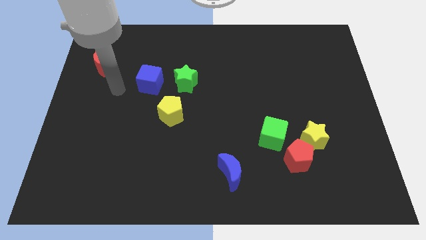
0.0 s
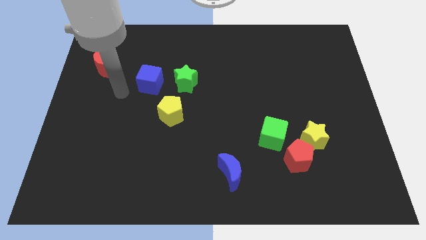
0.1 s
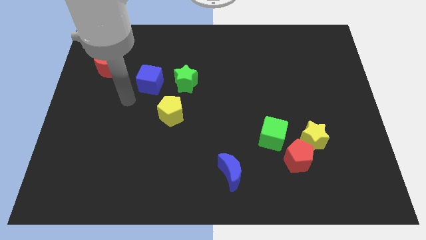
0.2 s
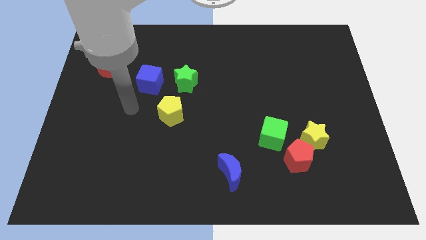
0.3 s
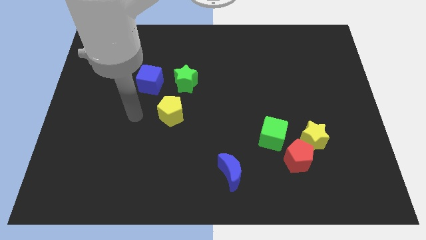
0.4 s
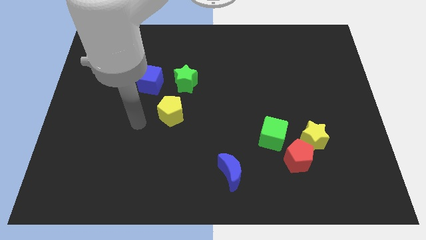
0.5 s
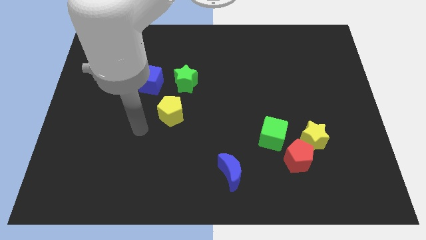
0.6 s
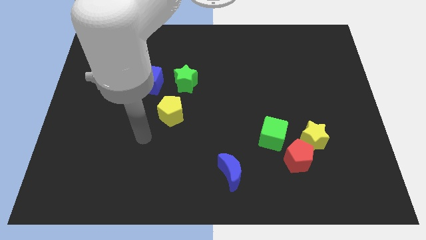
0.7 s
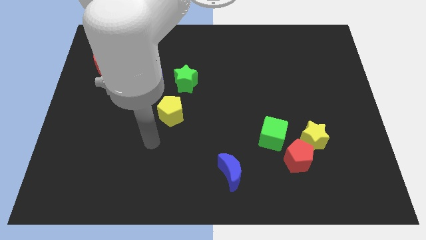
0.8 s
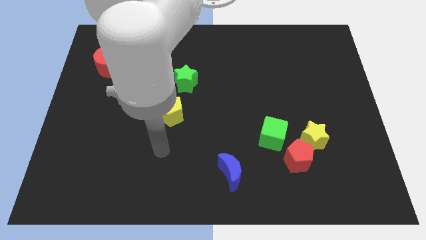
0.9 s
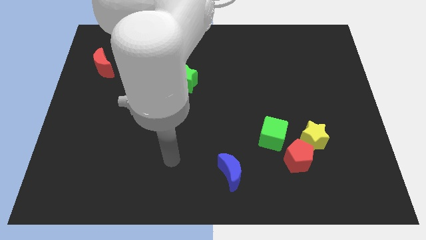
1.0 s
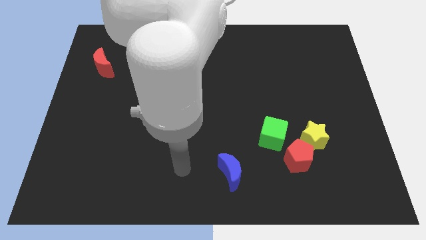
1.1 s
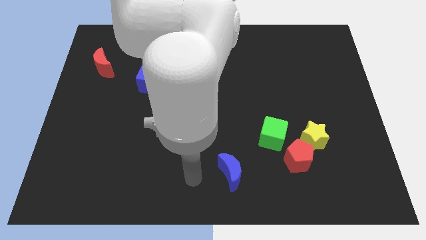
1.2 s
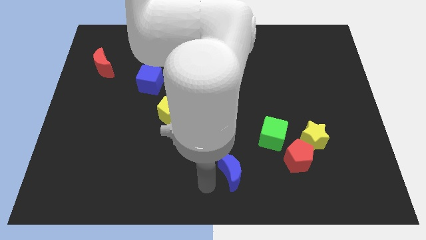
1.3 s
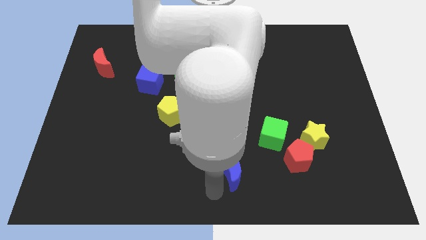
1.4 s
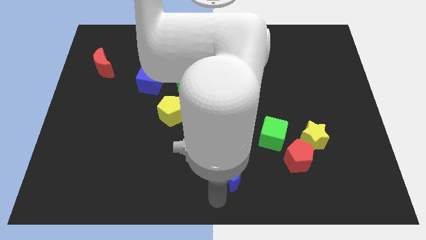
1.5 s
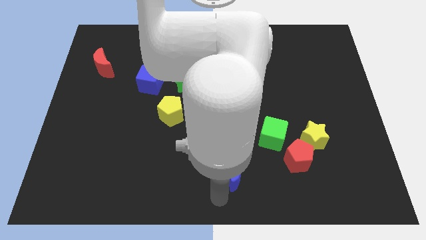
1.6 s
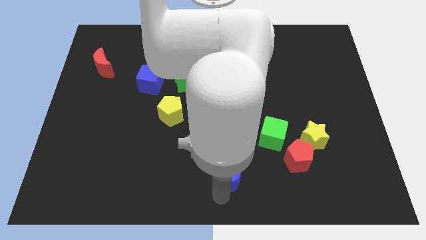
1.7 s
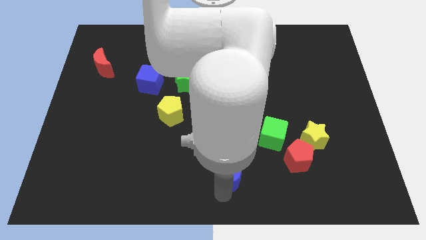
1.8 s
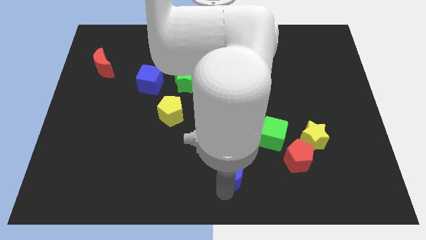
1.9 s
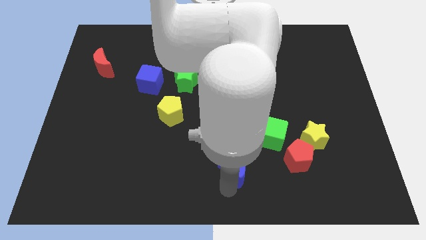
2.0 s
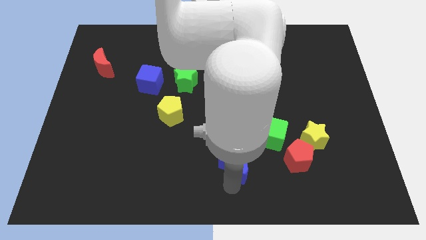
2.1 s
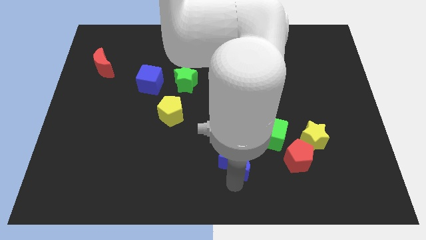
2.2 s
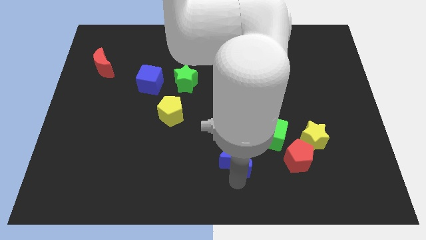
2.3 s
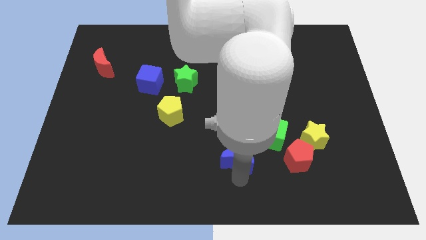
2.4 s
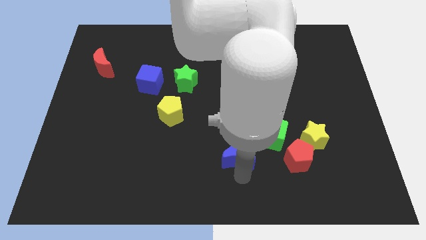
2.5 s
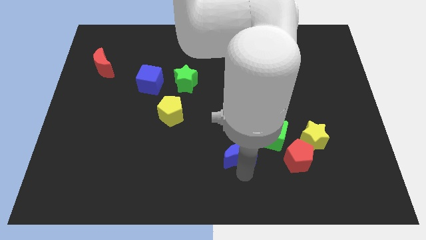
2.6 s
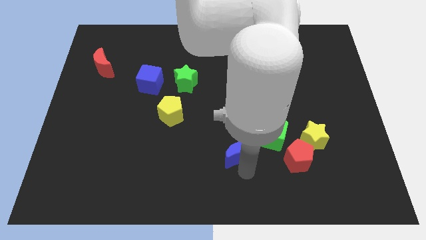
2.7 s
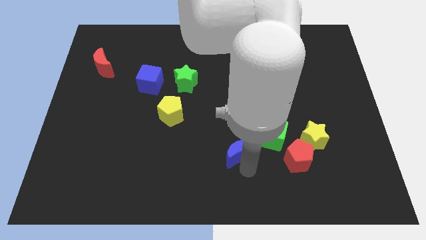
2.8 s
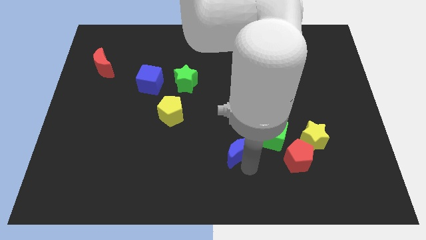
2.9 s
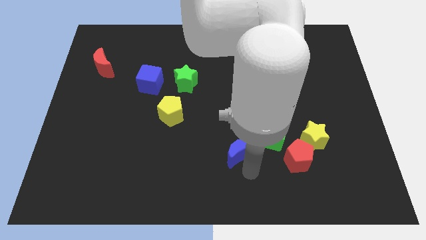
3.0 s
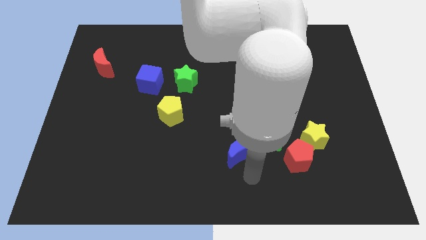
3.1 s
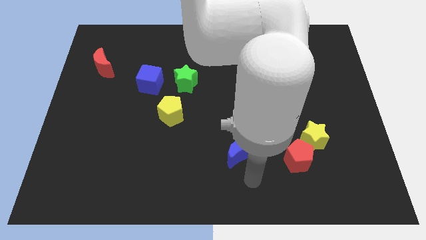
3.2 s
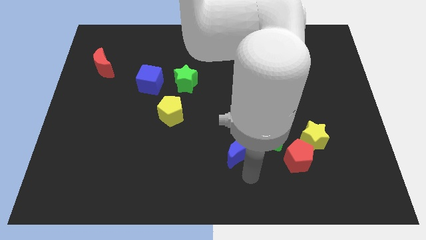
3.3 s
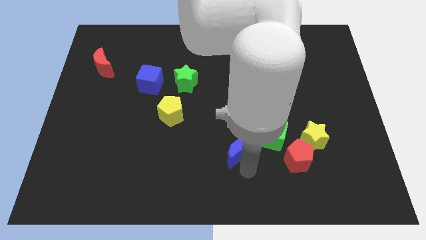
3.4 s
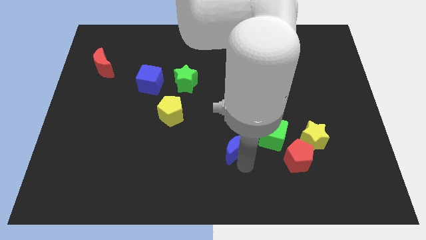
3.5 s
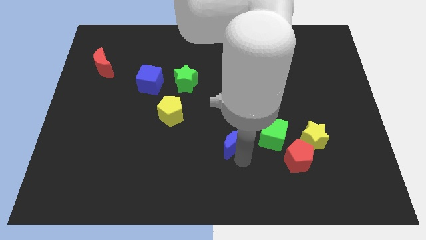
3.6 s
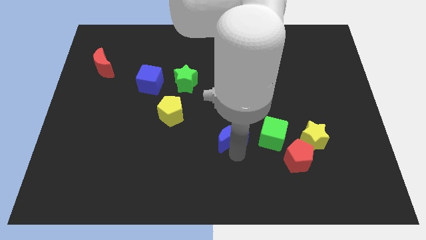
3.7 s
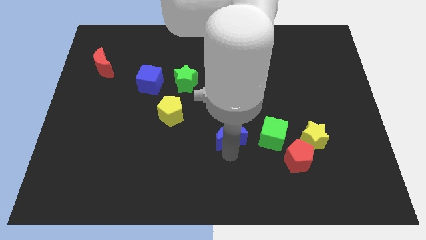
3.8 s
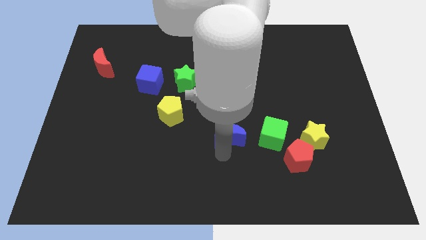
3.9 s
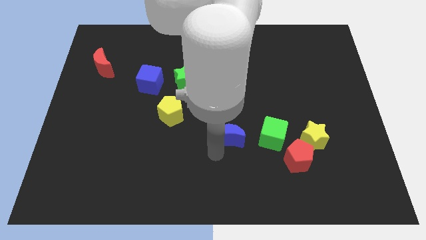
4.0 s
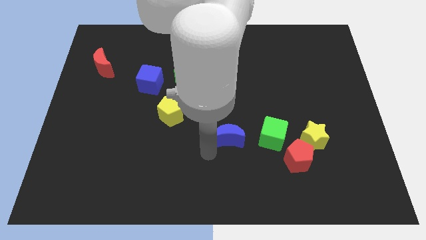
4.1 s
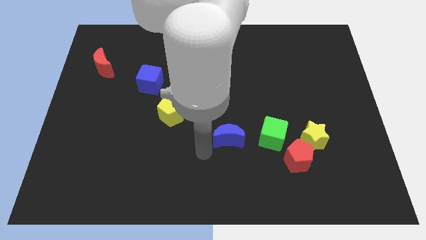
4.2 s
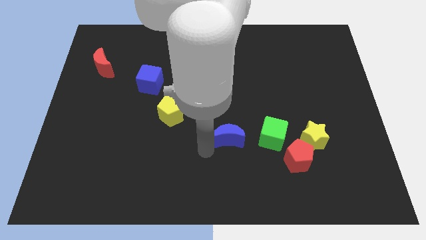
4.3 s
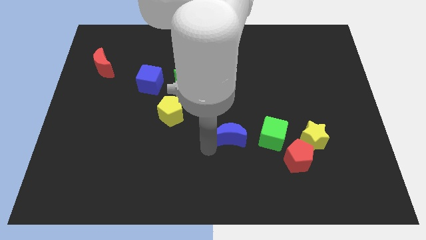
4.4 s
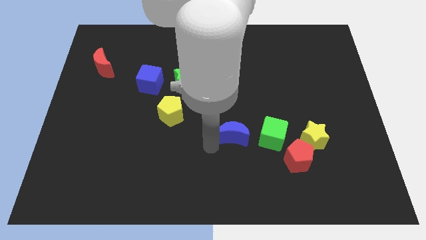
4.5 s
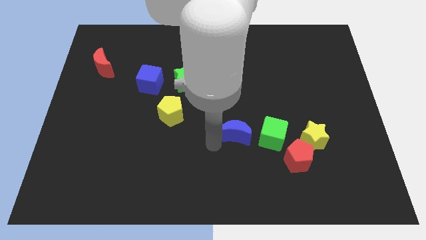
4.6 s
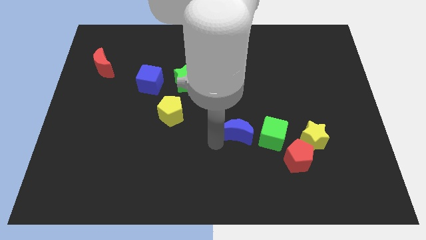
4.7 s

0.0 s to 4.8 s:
move the blue moon diagonally up and right slightly

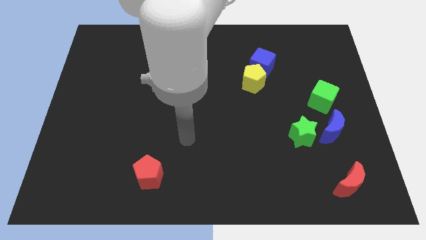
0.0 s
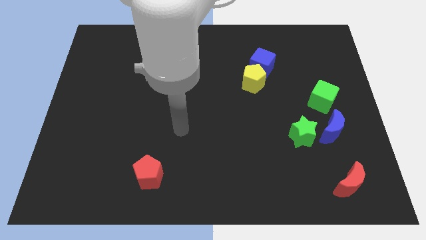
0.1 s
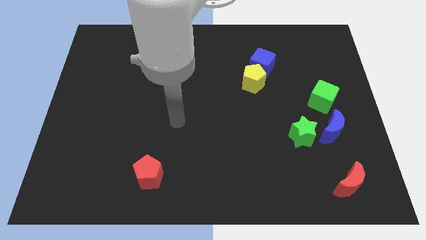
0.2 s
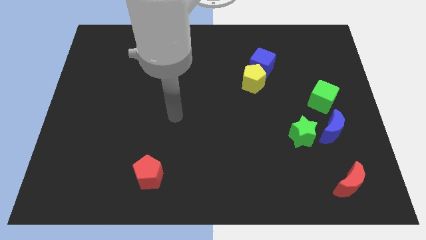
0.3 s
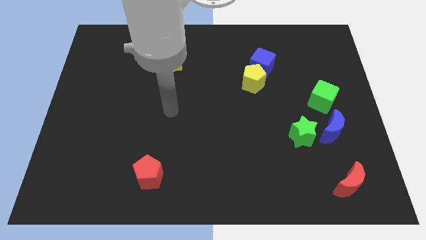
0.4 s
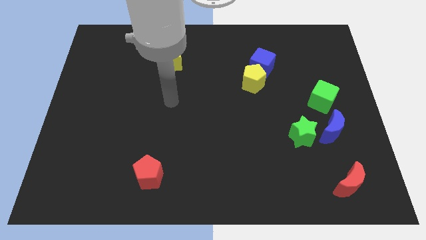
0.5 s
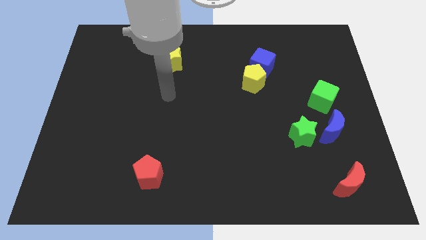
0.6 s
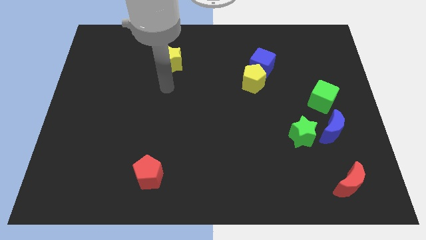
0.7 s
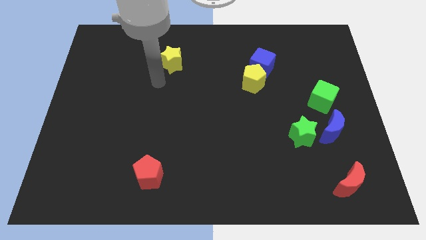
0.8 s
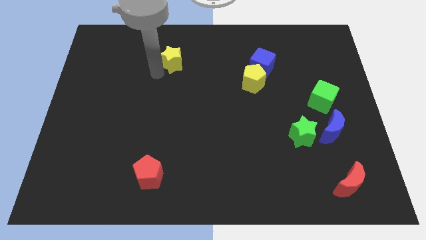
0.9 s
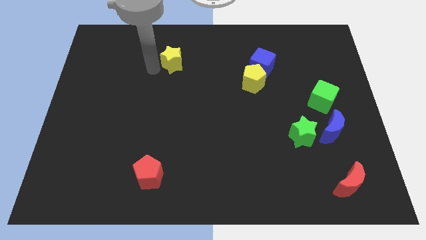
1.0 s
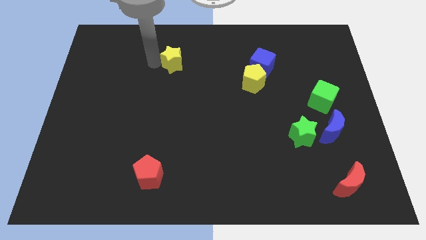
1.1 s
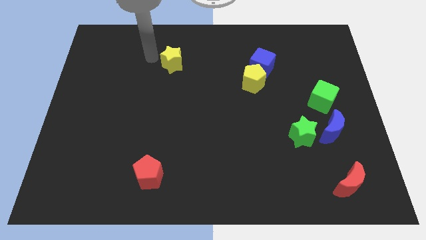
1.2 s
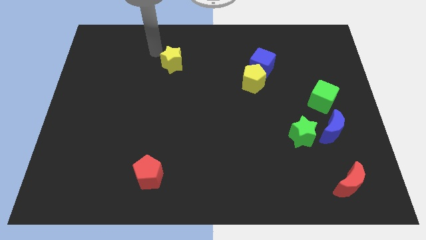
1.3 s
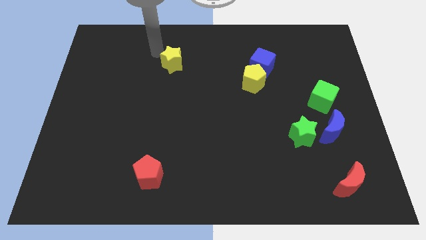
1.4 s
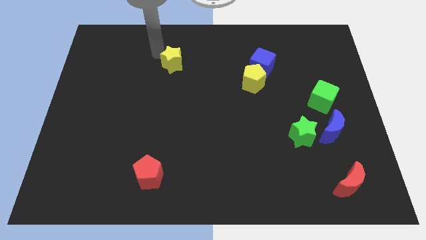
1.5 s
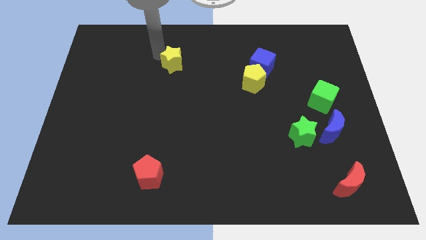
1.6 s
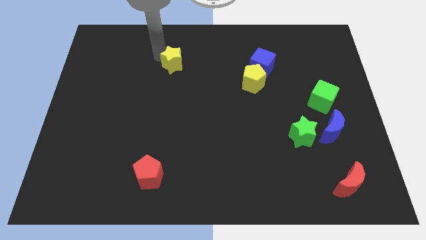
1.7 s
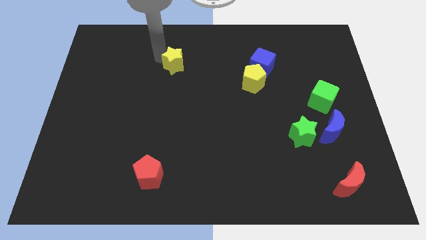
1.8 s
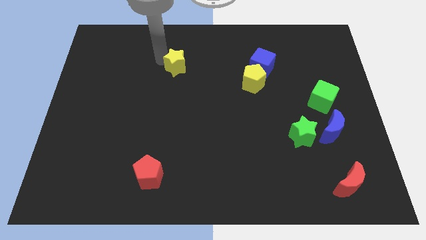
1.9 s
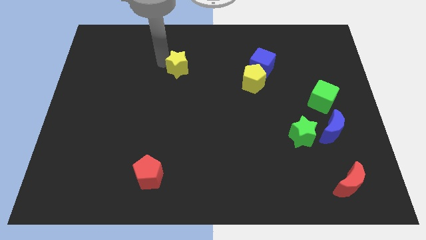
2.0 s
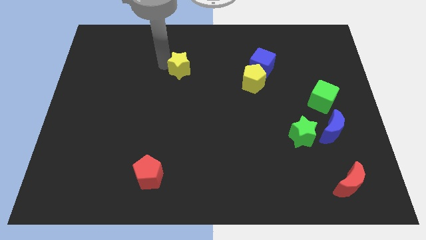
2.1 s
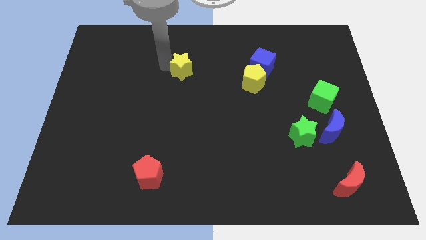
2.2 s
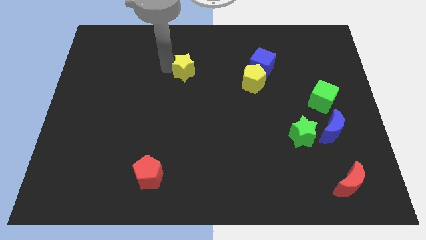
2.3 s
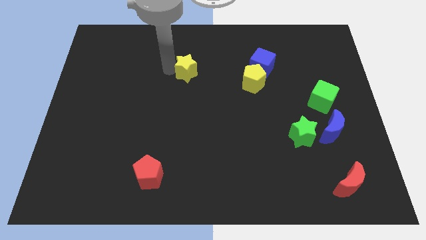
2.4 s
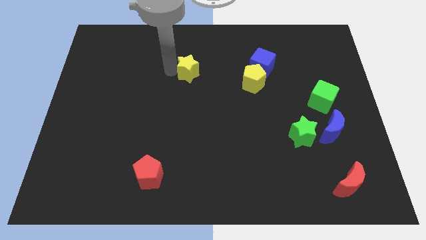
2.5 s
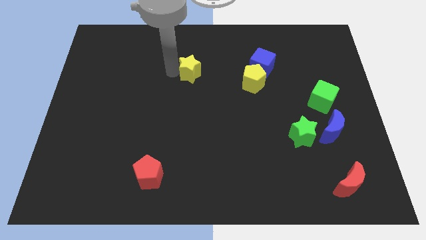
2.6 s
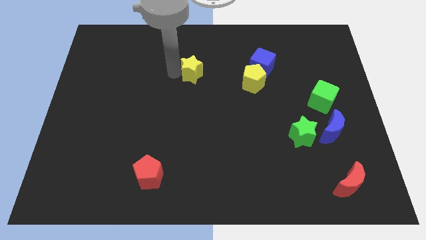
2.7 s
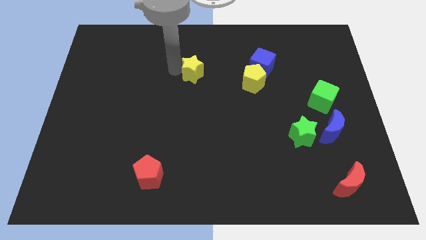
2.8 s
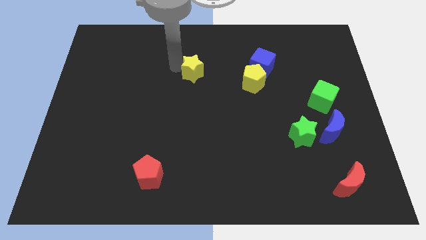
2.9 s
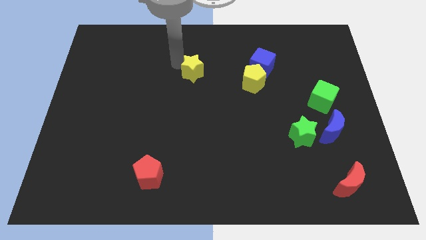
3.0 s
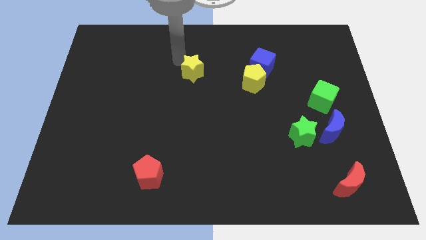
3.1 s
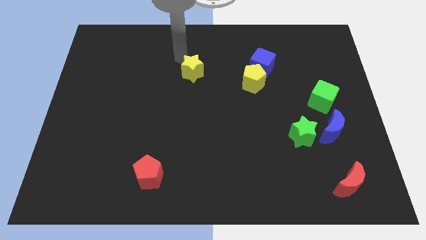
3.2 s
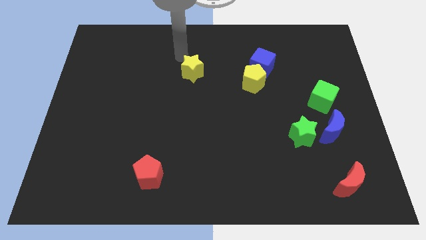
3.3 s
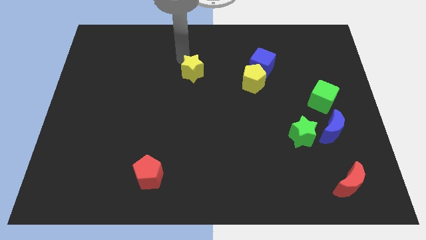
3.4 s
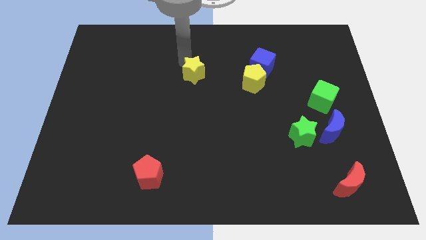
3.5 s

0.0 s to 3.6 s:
slightly slide the yellow star diagonally downwards and to the right
